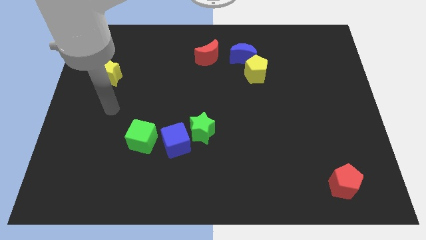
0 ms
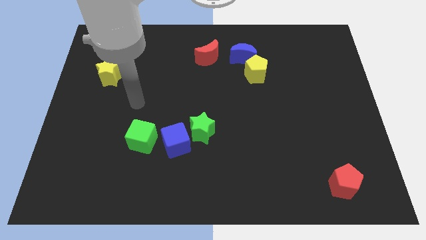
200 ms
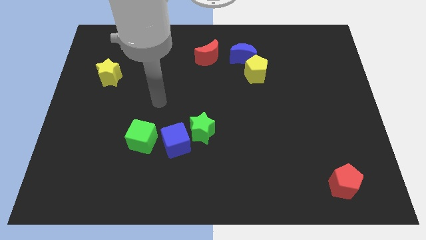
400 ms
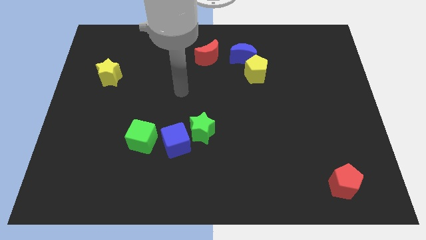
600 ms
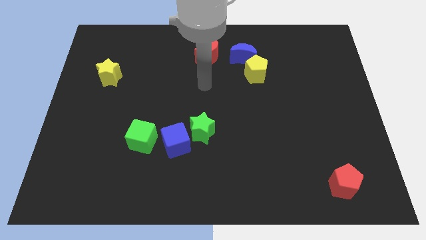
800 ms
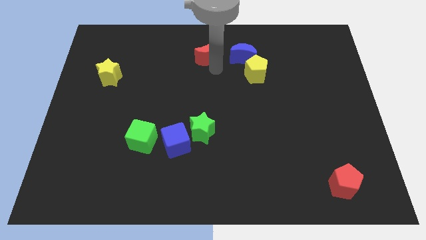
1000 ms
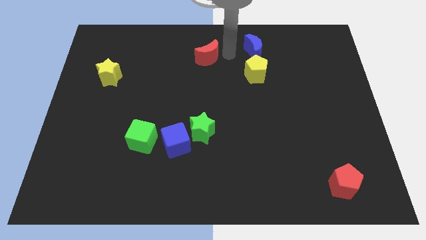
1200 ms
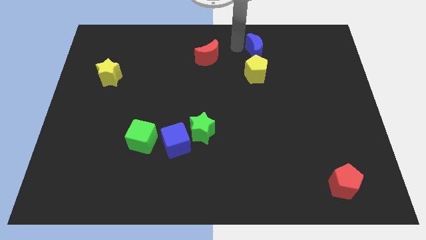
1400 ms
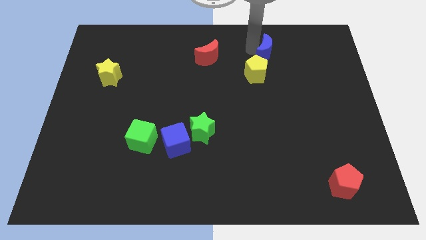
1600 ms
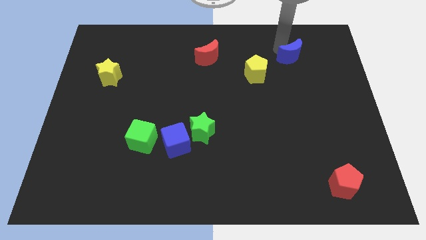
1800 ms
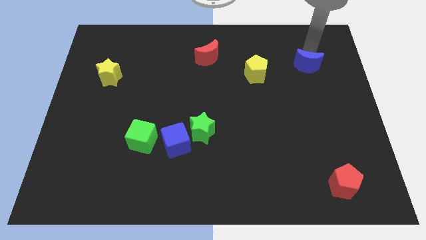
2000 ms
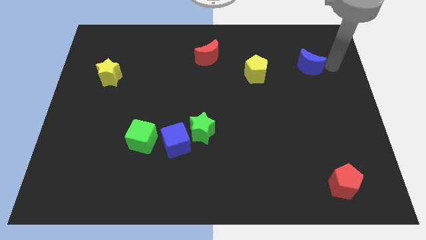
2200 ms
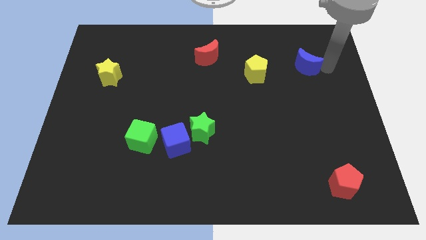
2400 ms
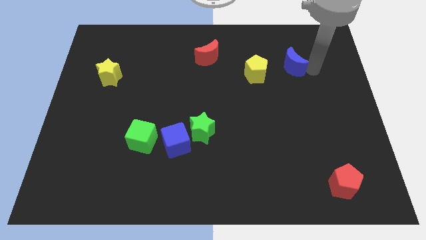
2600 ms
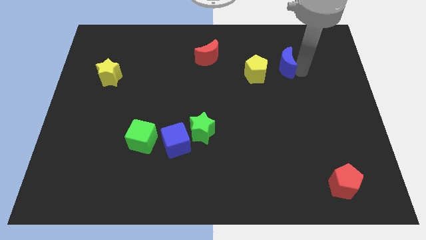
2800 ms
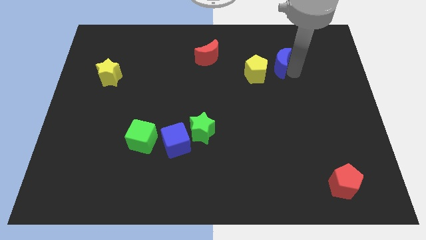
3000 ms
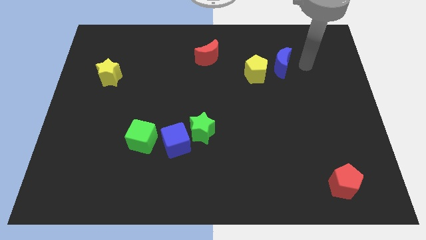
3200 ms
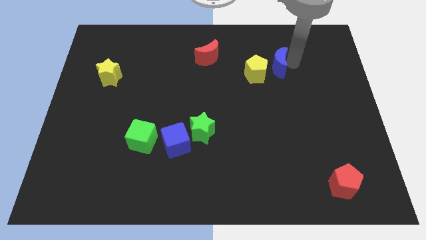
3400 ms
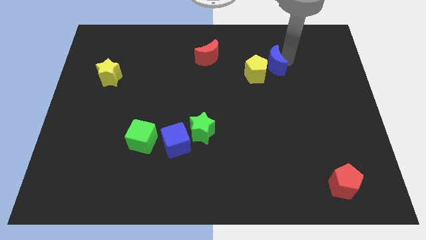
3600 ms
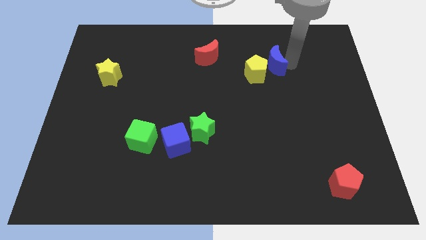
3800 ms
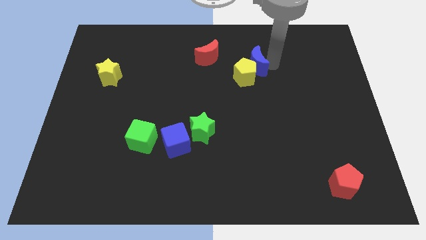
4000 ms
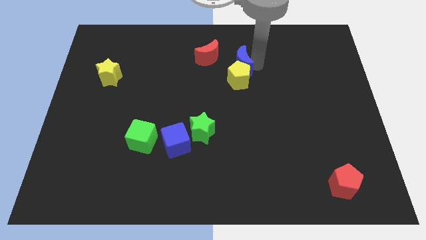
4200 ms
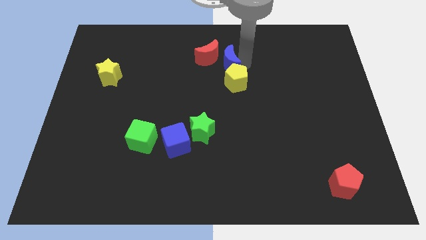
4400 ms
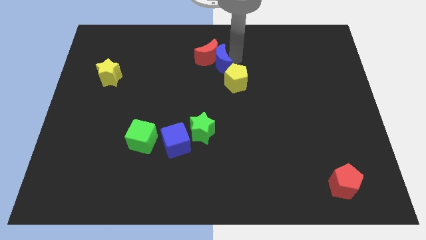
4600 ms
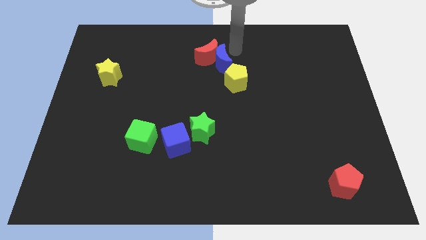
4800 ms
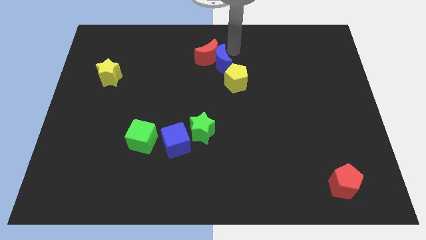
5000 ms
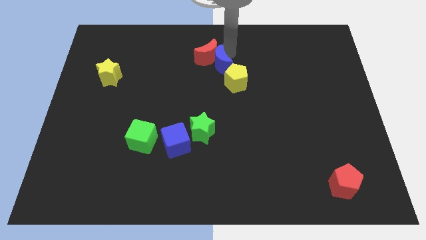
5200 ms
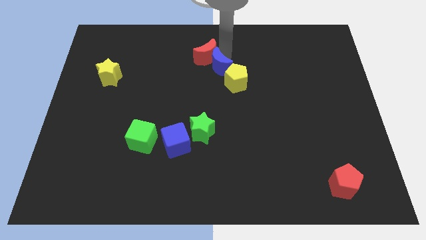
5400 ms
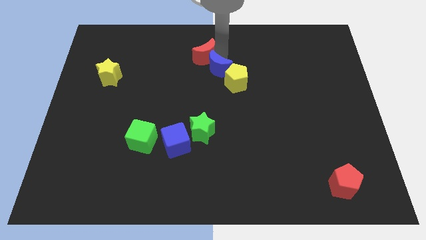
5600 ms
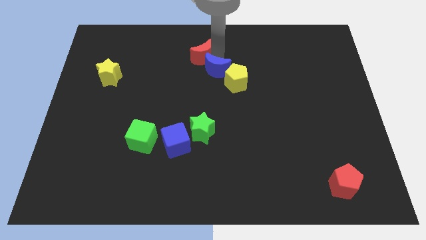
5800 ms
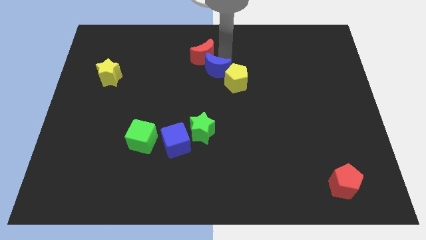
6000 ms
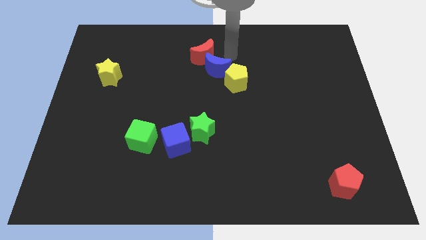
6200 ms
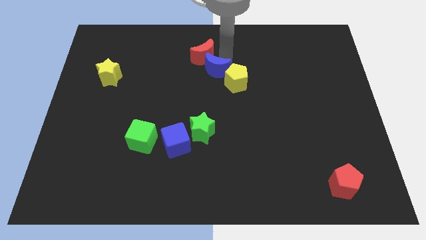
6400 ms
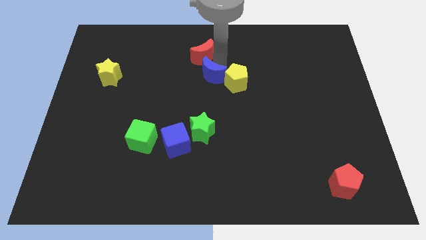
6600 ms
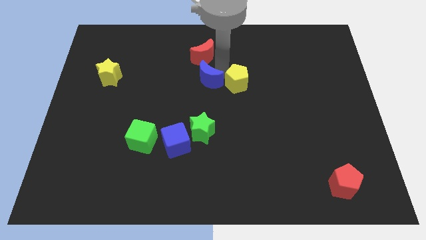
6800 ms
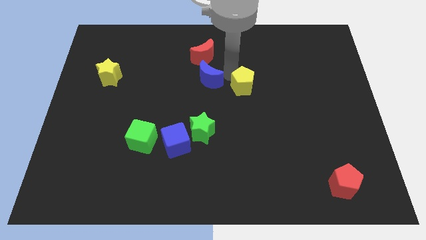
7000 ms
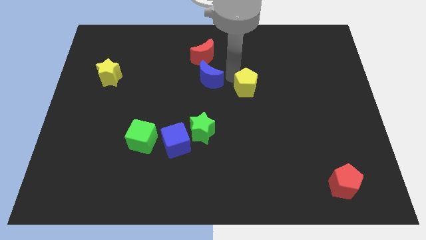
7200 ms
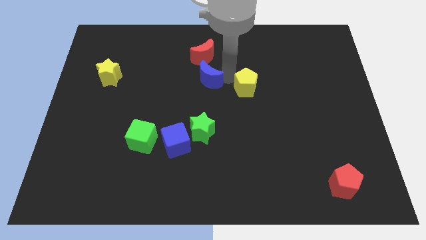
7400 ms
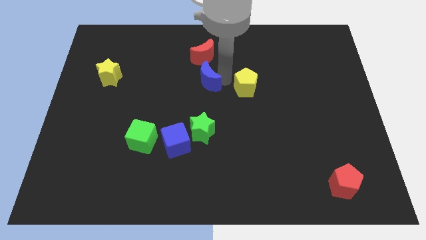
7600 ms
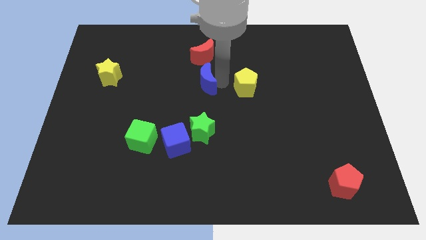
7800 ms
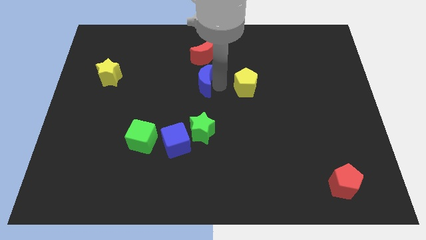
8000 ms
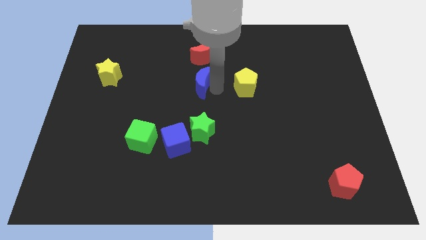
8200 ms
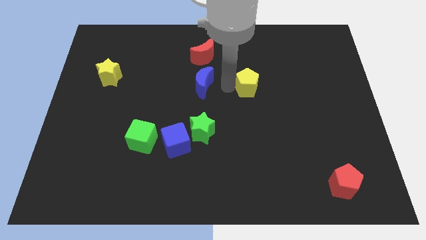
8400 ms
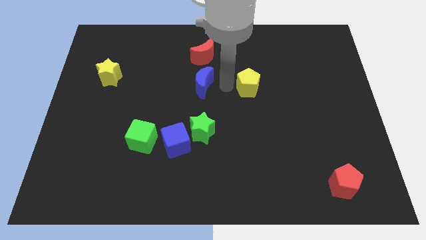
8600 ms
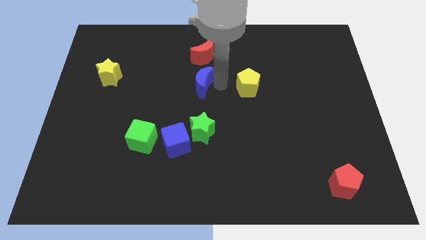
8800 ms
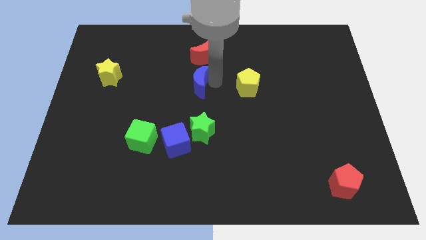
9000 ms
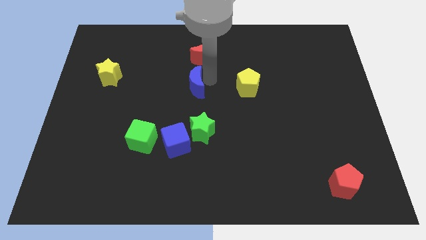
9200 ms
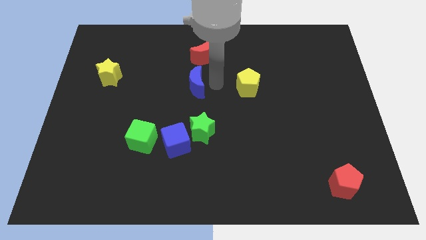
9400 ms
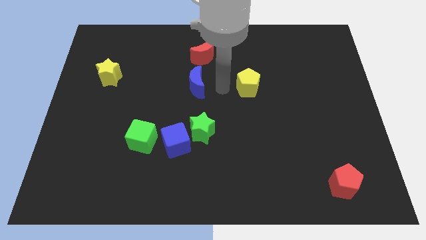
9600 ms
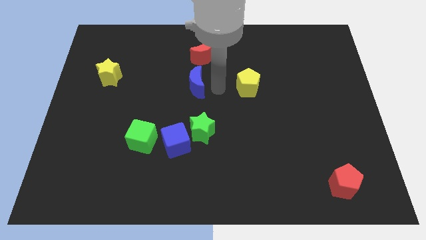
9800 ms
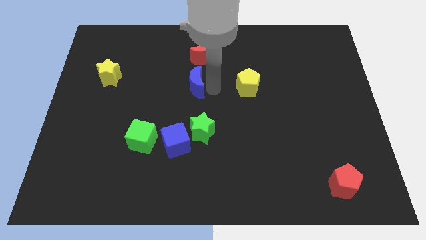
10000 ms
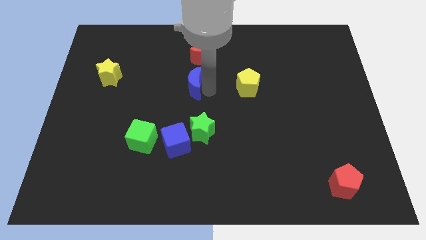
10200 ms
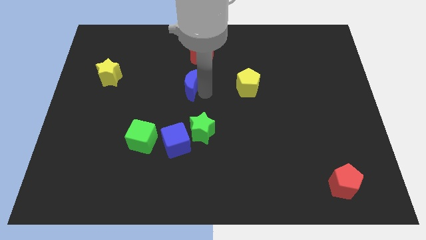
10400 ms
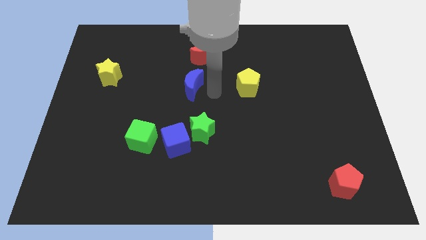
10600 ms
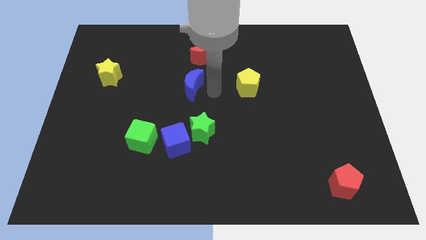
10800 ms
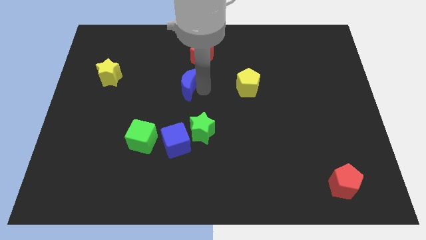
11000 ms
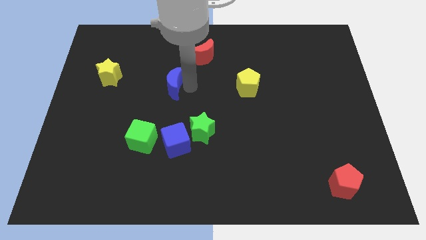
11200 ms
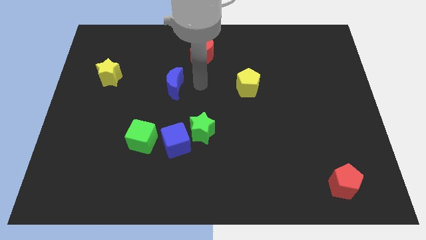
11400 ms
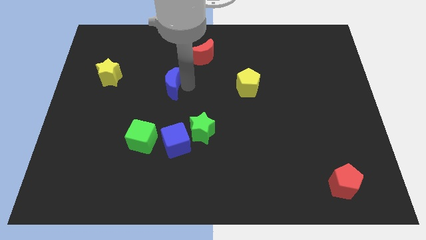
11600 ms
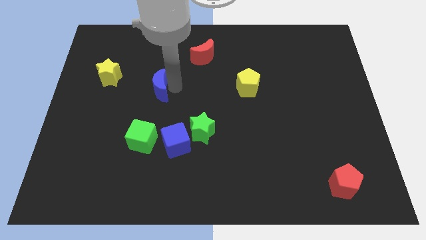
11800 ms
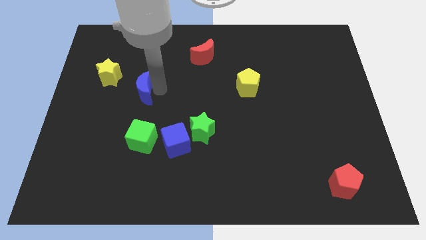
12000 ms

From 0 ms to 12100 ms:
move the blue moon diagonally down and to the right of the yellow star
